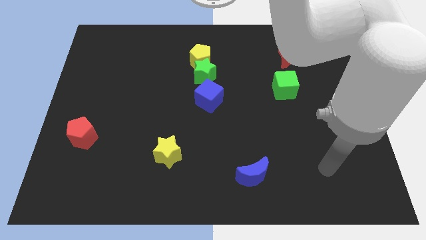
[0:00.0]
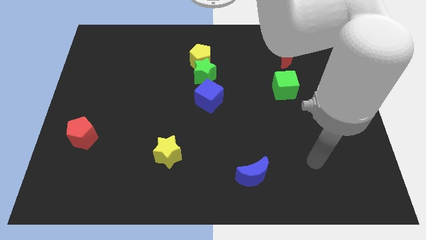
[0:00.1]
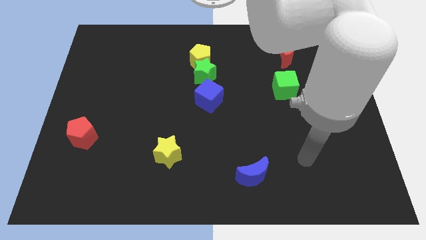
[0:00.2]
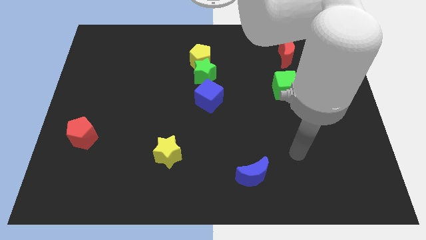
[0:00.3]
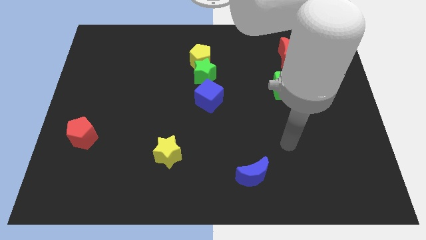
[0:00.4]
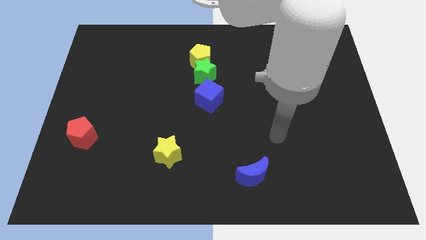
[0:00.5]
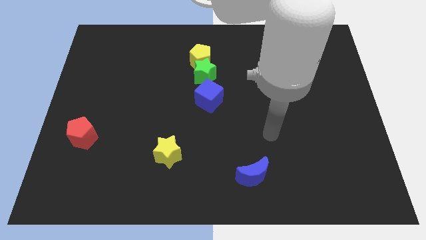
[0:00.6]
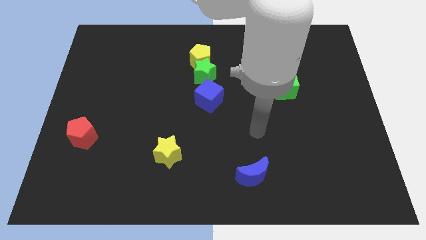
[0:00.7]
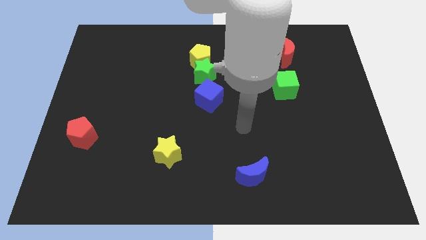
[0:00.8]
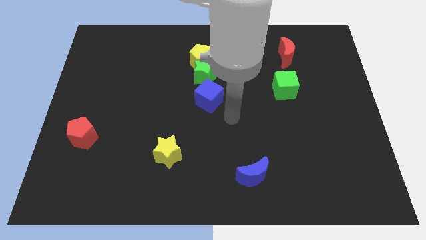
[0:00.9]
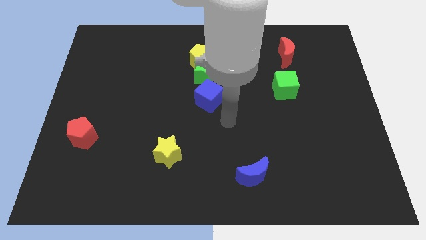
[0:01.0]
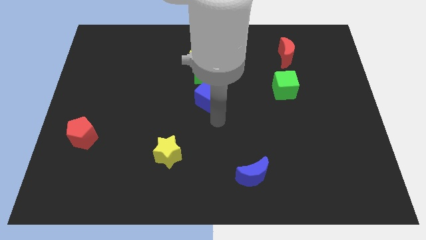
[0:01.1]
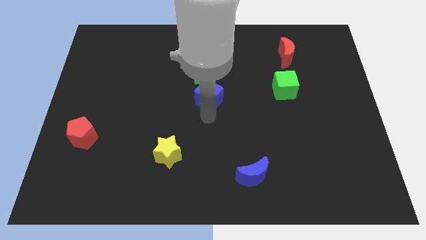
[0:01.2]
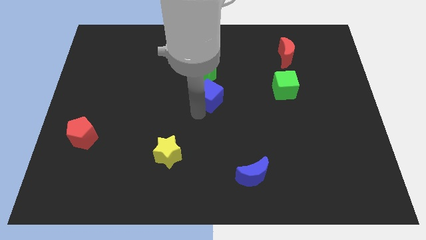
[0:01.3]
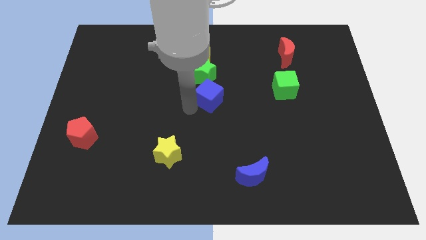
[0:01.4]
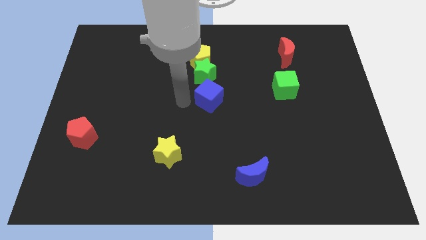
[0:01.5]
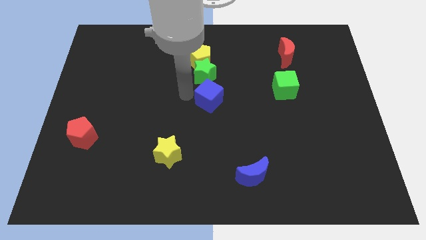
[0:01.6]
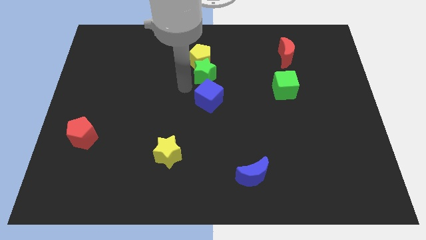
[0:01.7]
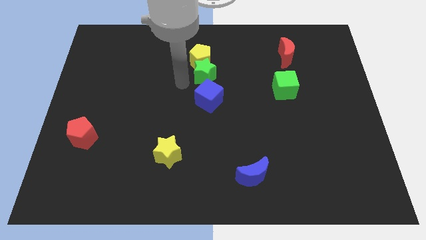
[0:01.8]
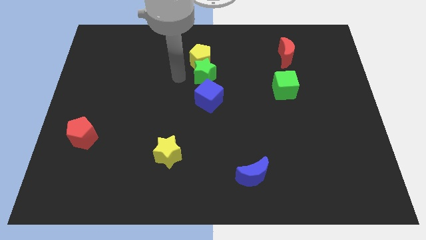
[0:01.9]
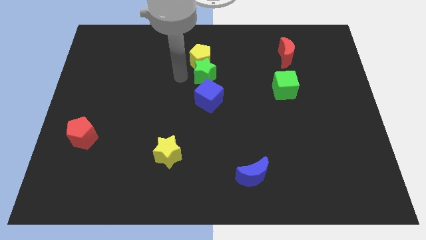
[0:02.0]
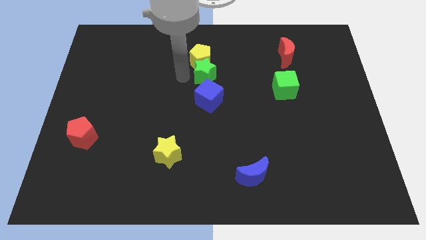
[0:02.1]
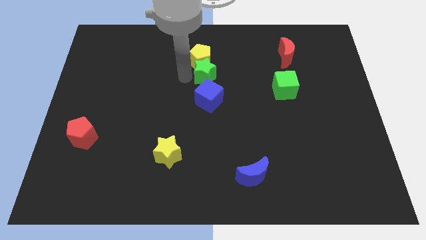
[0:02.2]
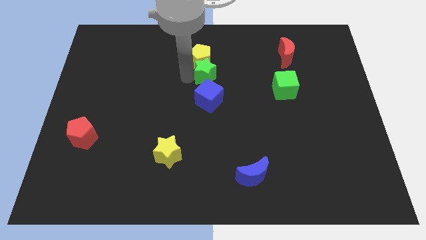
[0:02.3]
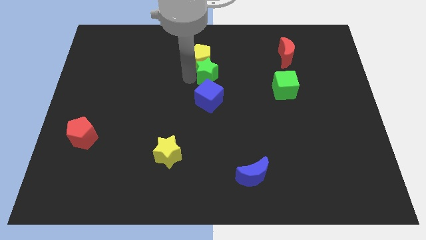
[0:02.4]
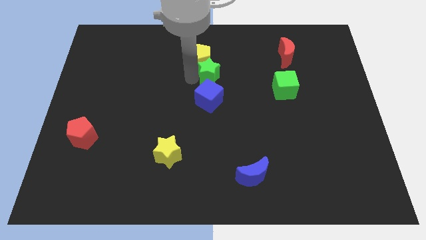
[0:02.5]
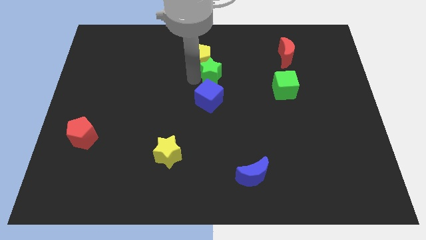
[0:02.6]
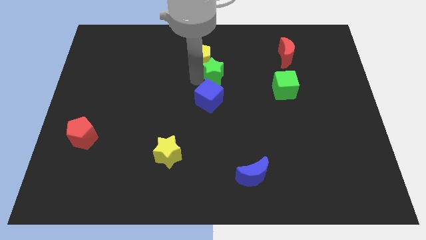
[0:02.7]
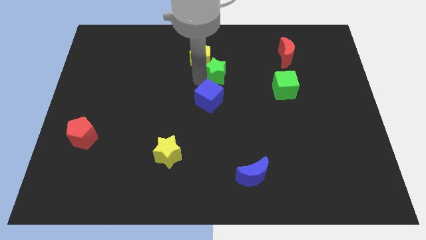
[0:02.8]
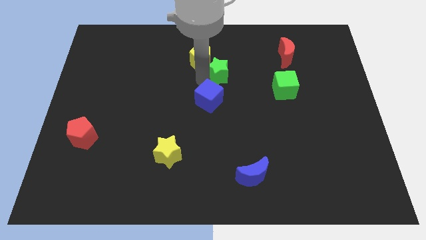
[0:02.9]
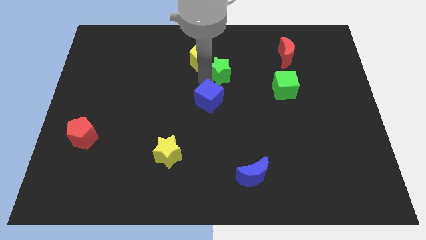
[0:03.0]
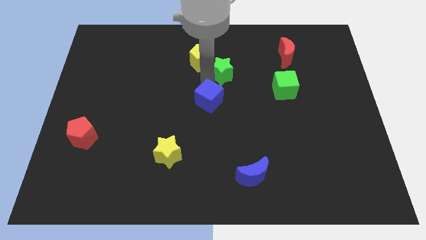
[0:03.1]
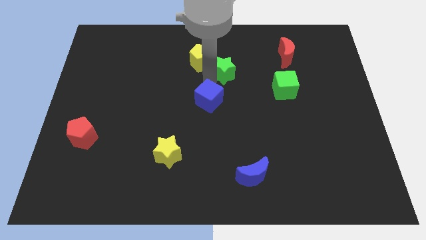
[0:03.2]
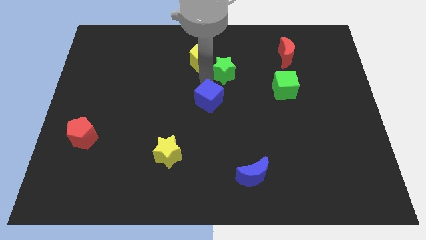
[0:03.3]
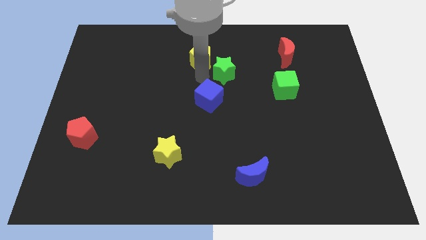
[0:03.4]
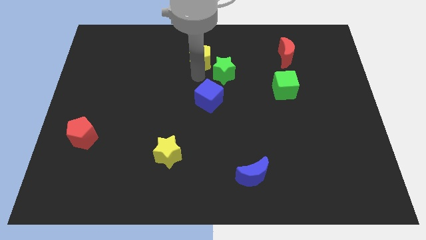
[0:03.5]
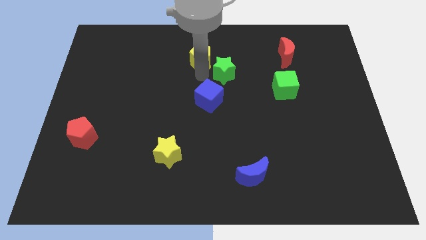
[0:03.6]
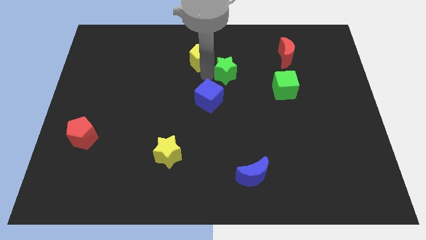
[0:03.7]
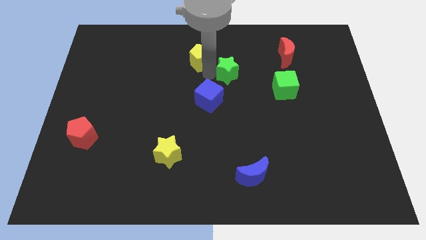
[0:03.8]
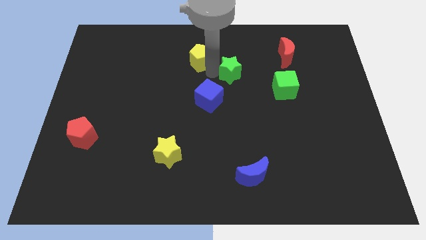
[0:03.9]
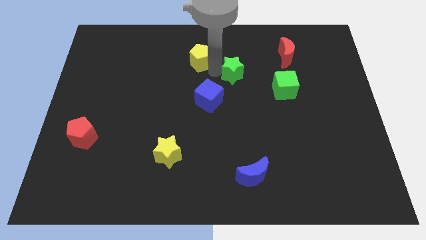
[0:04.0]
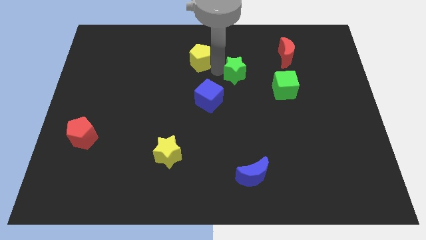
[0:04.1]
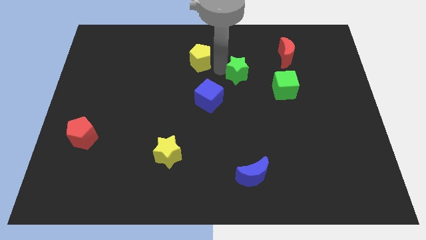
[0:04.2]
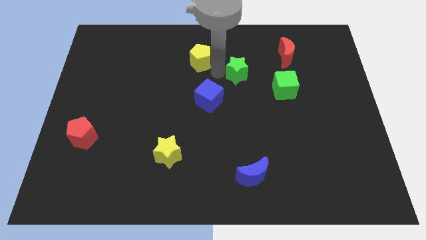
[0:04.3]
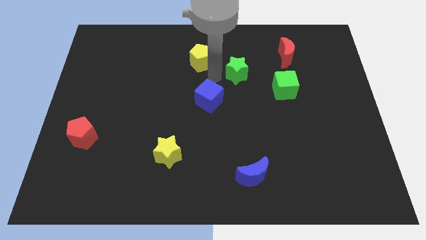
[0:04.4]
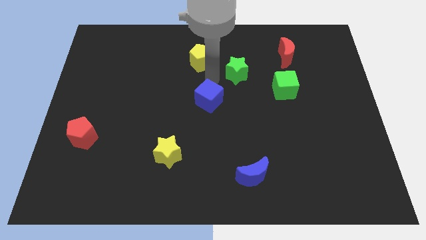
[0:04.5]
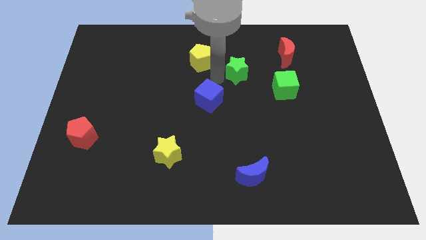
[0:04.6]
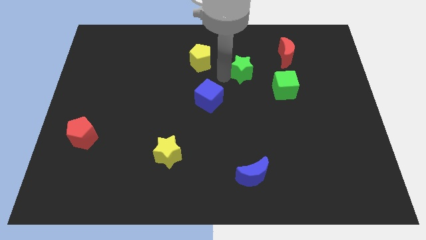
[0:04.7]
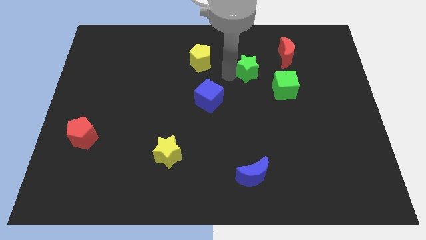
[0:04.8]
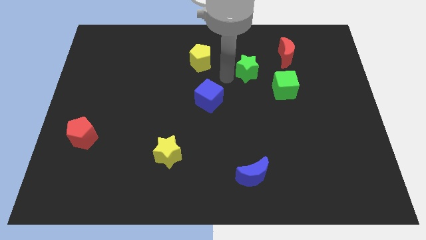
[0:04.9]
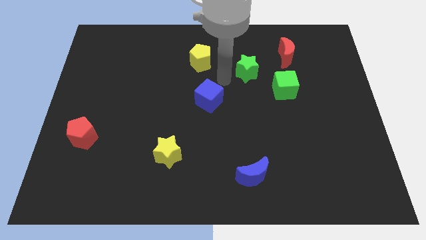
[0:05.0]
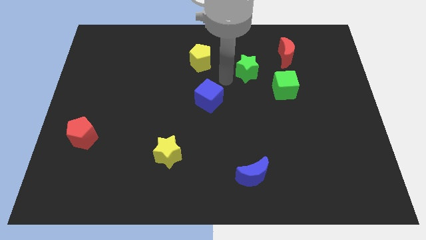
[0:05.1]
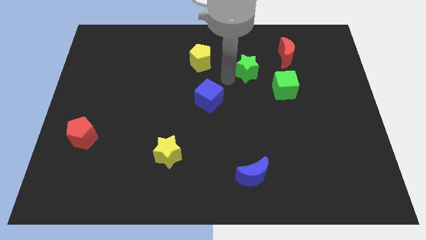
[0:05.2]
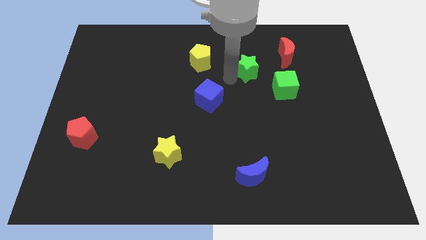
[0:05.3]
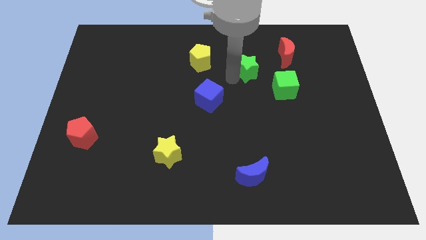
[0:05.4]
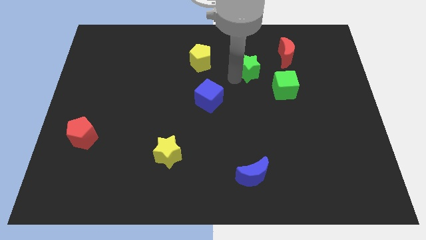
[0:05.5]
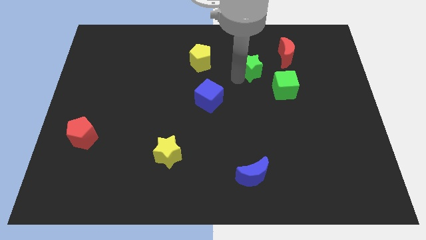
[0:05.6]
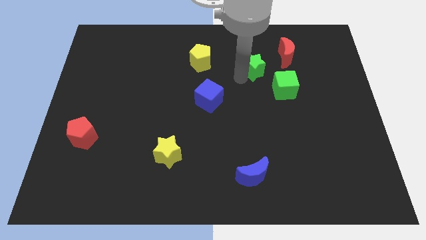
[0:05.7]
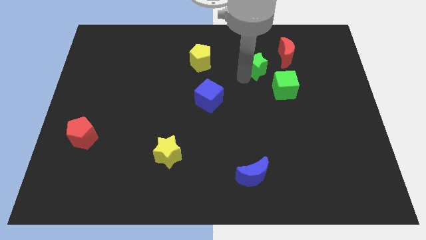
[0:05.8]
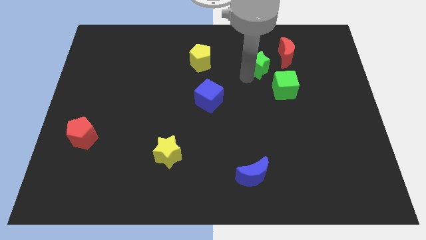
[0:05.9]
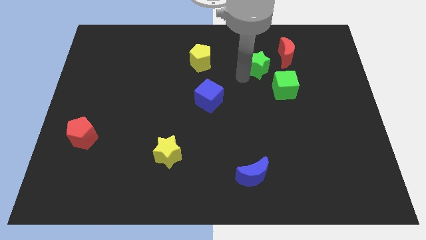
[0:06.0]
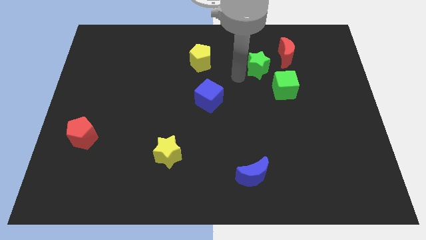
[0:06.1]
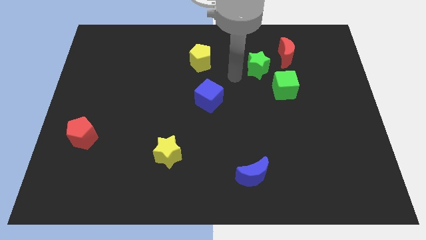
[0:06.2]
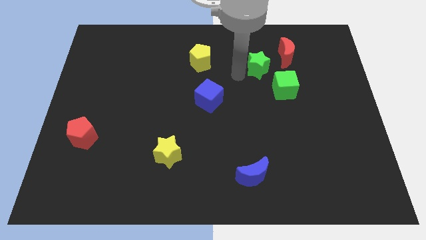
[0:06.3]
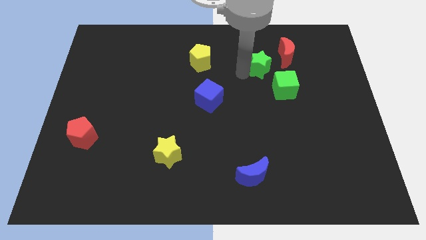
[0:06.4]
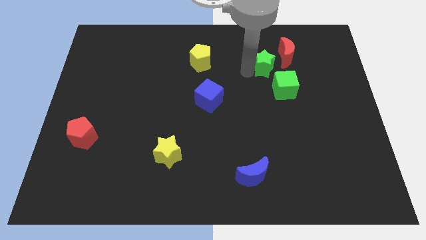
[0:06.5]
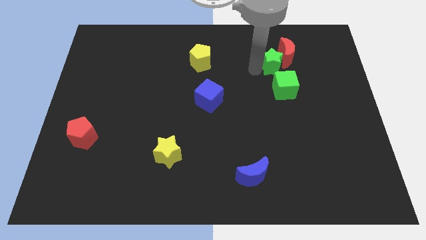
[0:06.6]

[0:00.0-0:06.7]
put the green star towards the red moon

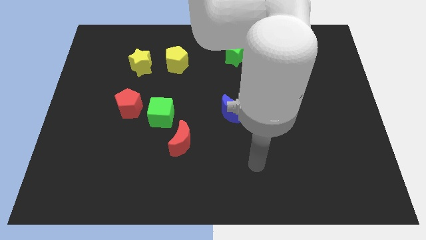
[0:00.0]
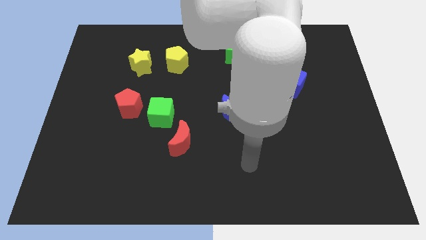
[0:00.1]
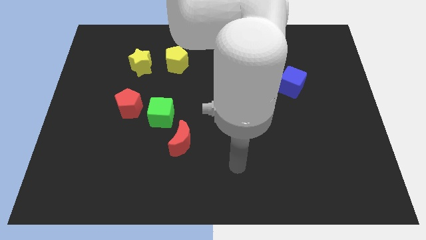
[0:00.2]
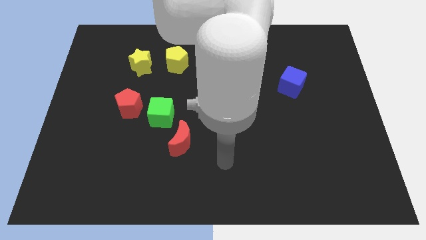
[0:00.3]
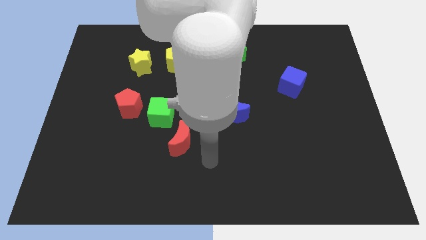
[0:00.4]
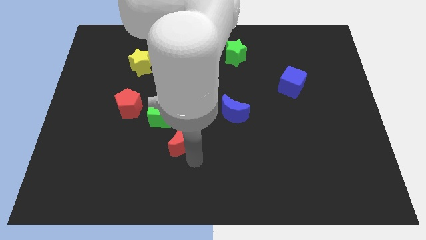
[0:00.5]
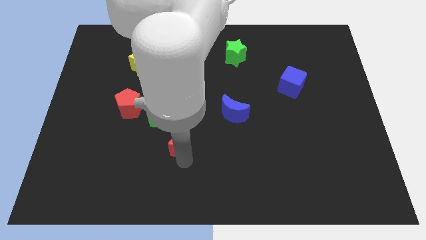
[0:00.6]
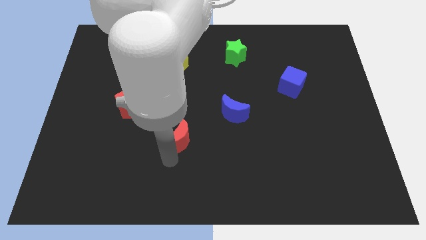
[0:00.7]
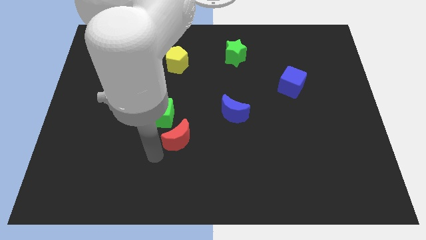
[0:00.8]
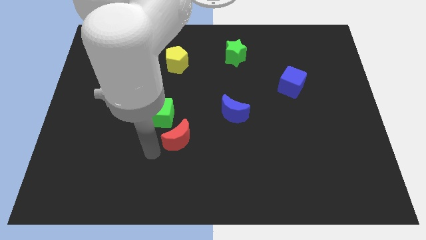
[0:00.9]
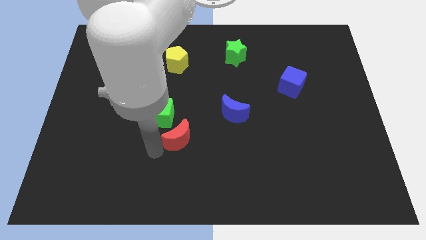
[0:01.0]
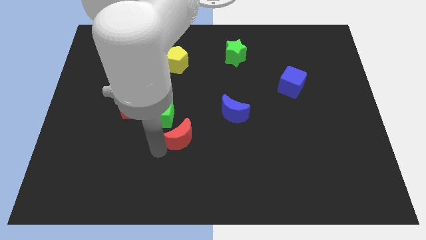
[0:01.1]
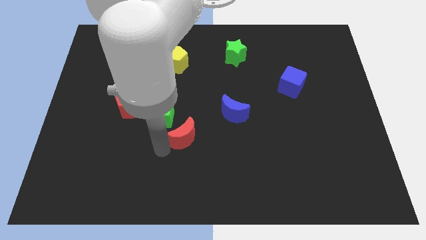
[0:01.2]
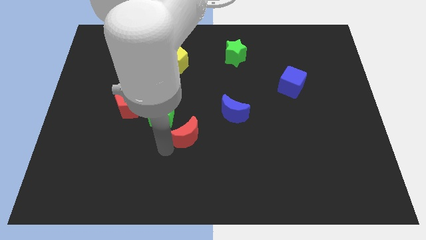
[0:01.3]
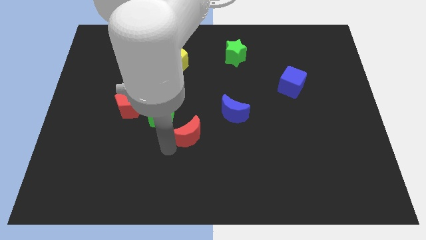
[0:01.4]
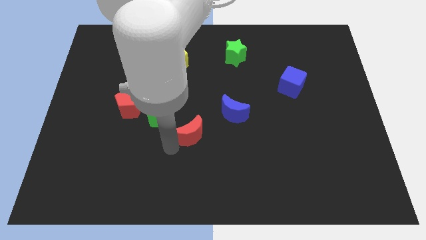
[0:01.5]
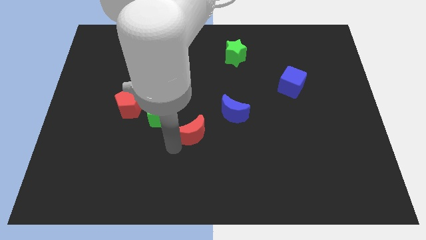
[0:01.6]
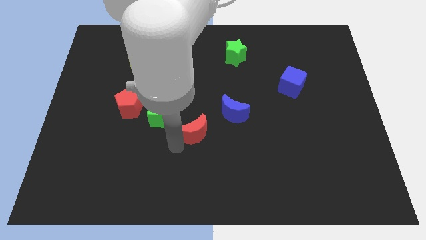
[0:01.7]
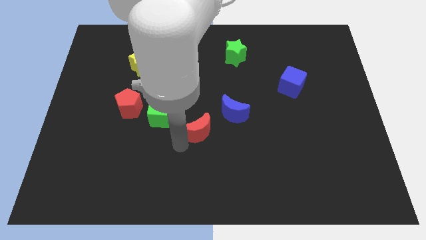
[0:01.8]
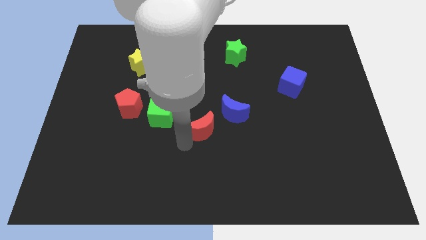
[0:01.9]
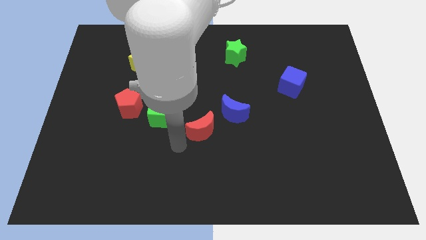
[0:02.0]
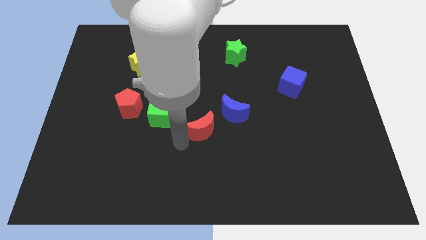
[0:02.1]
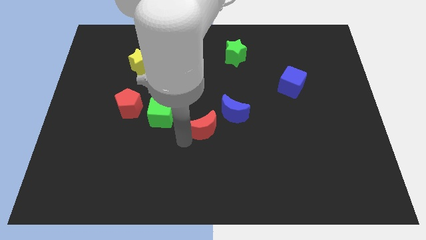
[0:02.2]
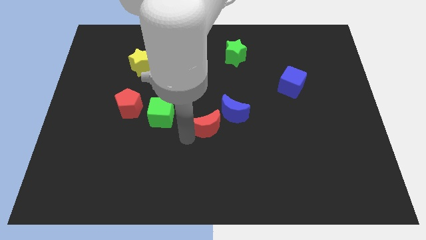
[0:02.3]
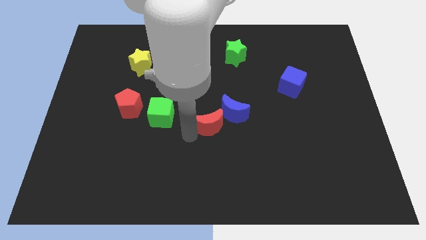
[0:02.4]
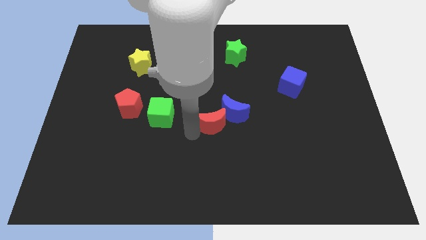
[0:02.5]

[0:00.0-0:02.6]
move the red moon towards the blue moon
